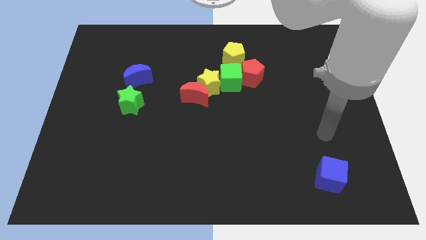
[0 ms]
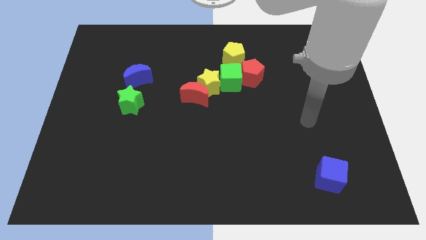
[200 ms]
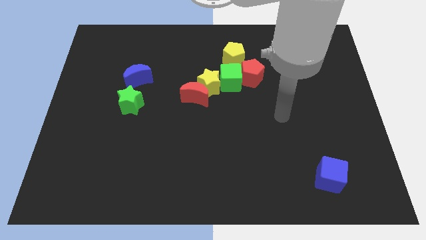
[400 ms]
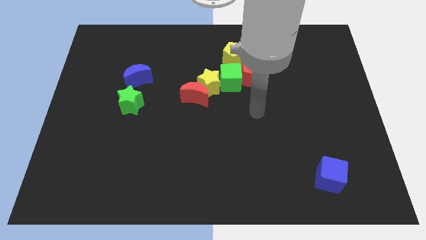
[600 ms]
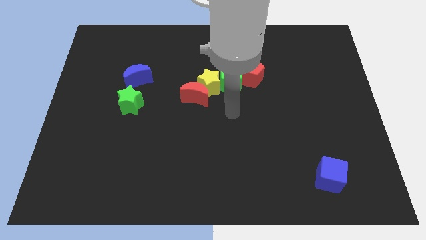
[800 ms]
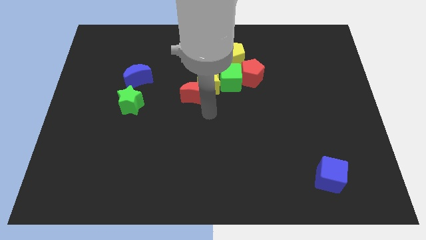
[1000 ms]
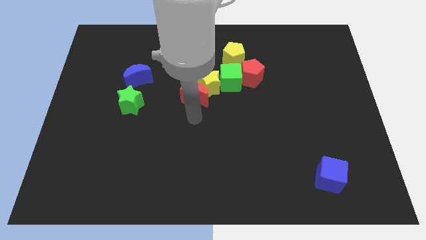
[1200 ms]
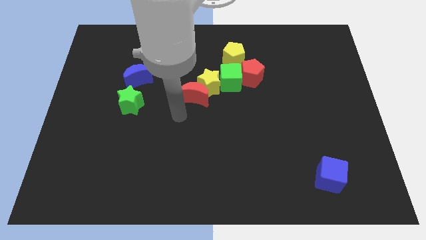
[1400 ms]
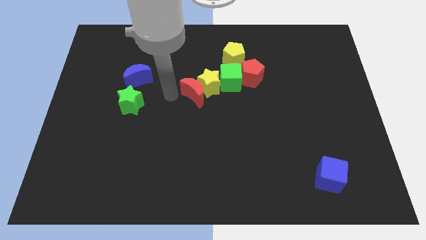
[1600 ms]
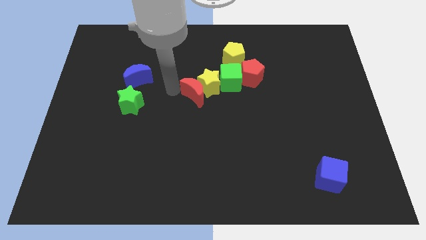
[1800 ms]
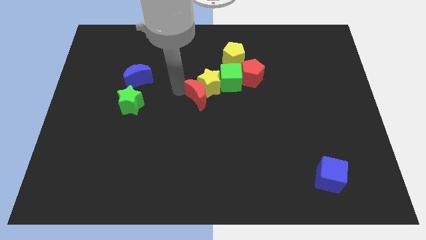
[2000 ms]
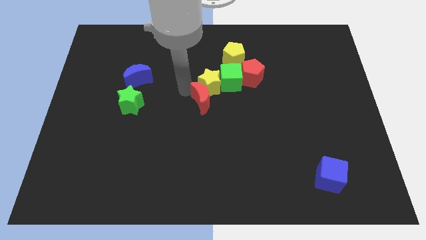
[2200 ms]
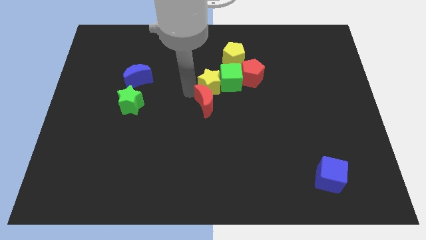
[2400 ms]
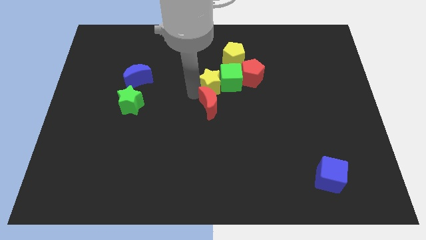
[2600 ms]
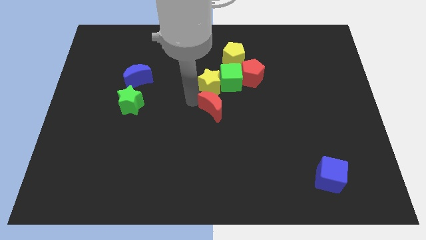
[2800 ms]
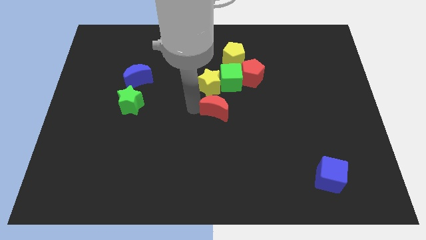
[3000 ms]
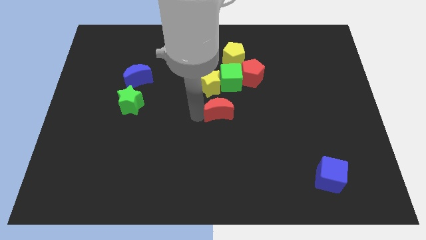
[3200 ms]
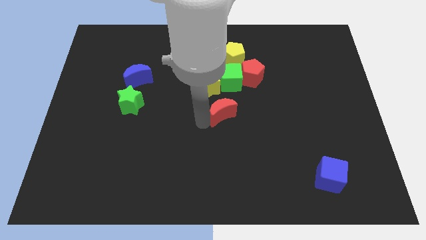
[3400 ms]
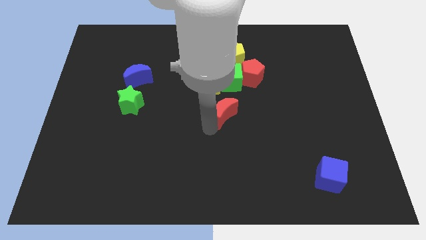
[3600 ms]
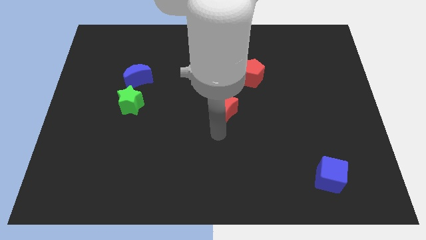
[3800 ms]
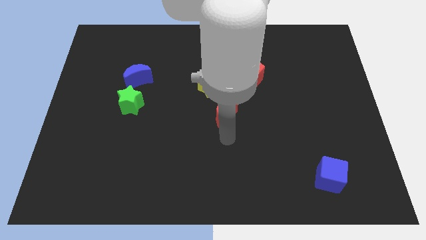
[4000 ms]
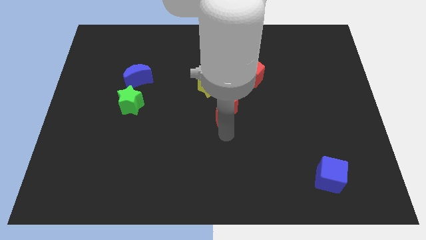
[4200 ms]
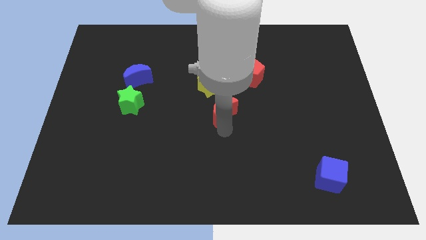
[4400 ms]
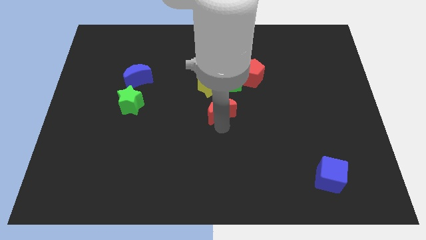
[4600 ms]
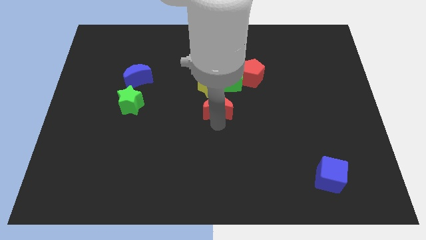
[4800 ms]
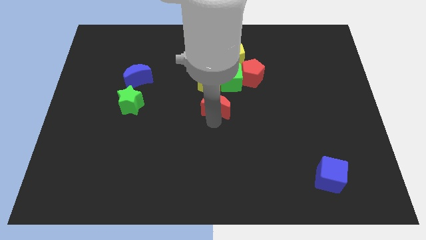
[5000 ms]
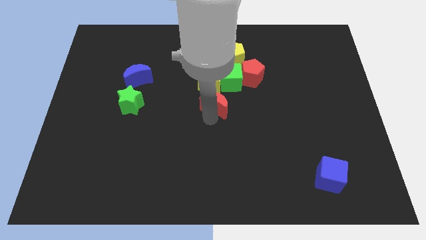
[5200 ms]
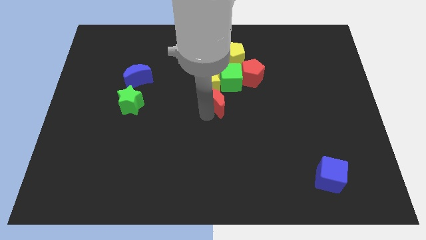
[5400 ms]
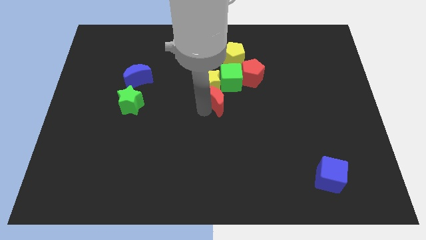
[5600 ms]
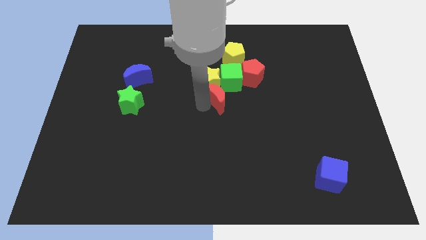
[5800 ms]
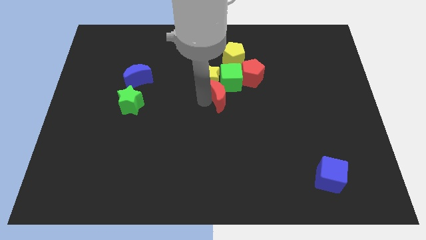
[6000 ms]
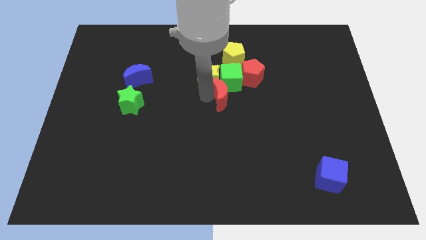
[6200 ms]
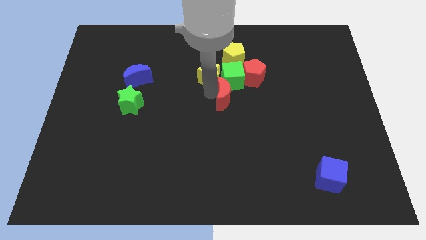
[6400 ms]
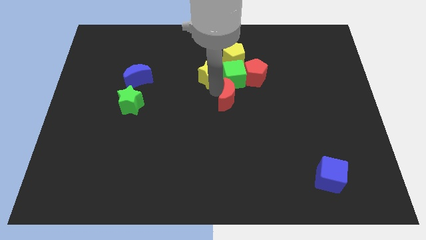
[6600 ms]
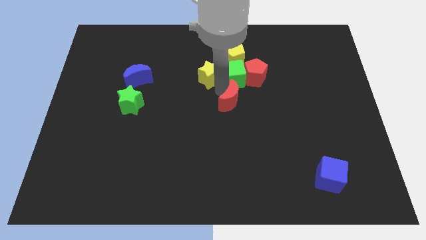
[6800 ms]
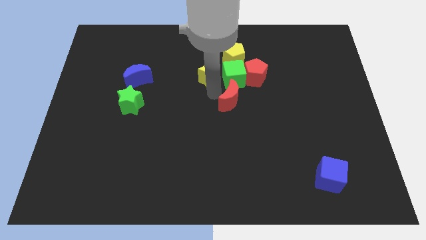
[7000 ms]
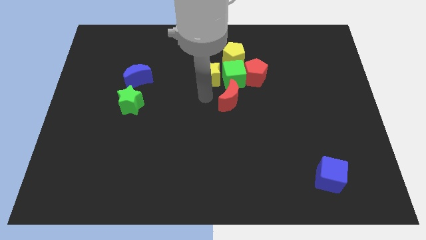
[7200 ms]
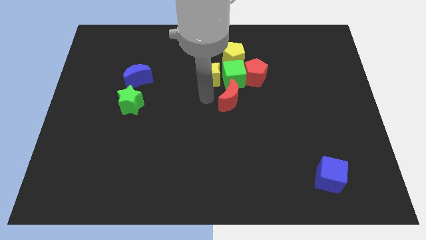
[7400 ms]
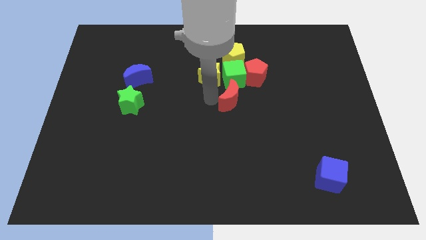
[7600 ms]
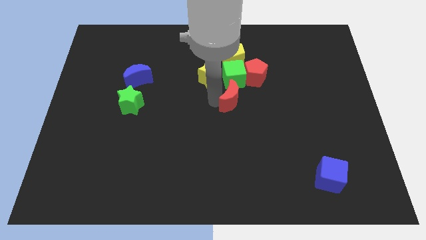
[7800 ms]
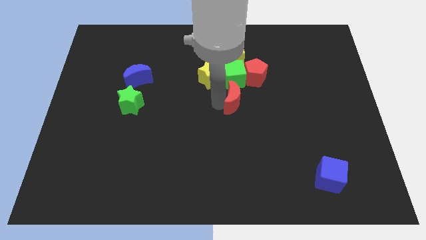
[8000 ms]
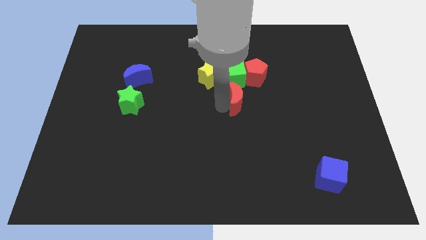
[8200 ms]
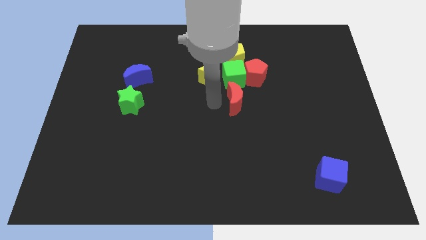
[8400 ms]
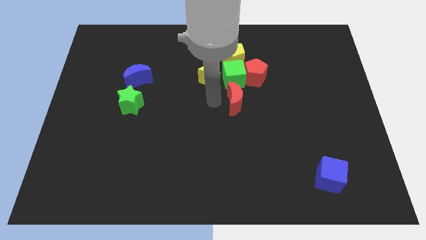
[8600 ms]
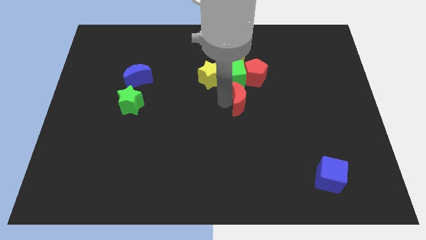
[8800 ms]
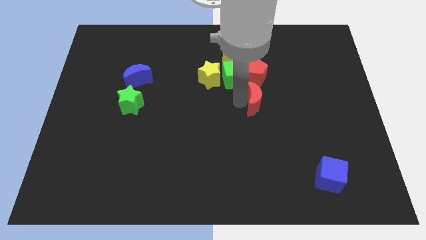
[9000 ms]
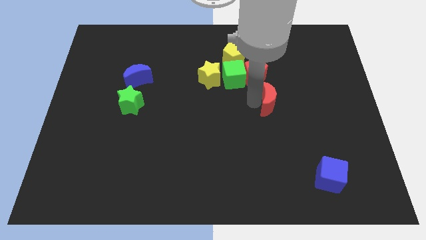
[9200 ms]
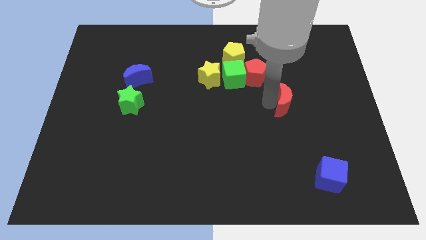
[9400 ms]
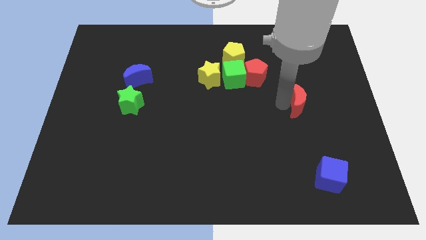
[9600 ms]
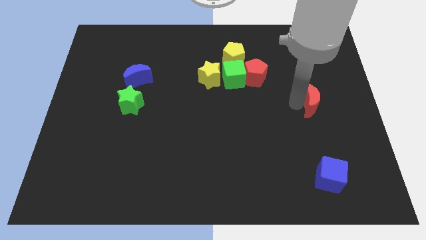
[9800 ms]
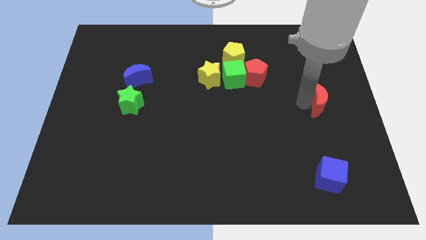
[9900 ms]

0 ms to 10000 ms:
slide the red moon to the right side

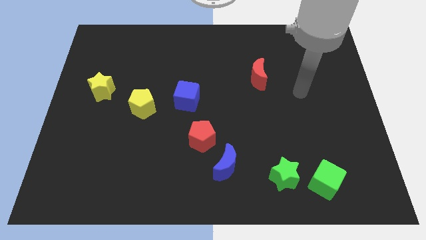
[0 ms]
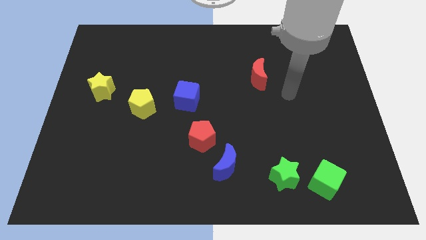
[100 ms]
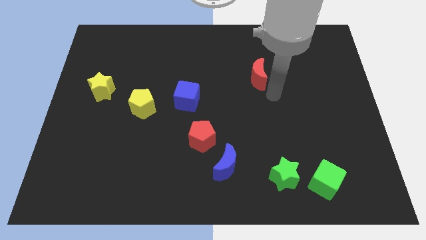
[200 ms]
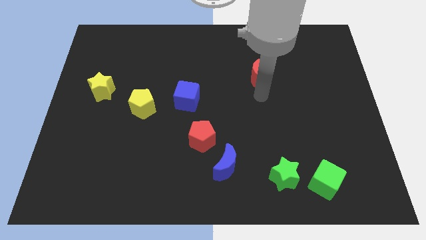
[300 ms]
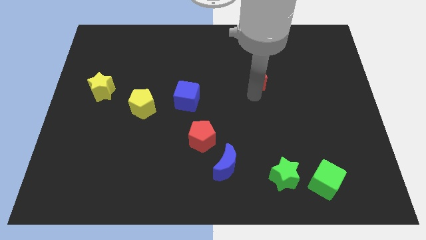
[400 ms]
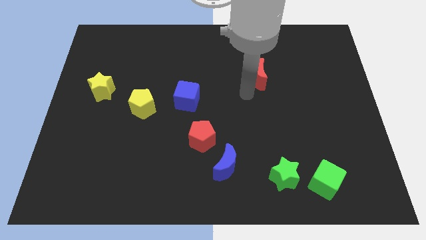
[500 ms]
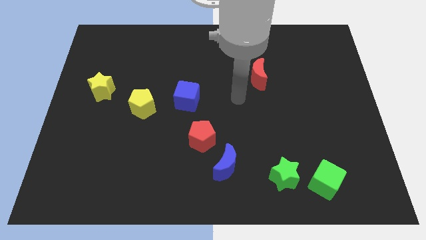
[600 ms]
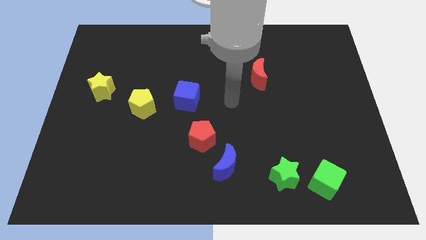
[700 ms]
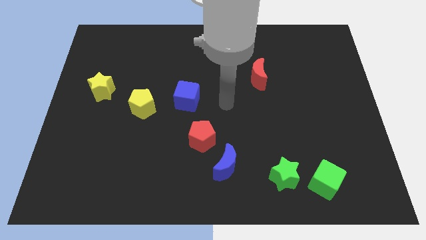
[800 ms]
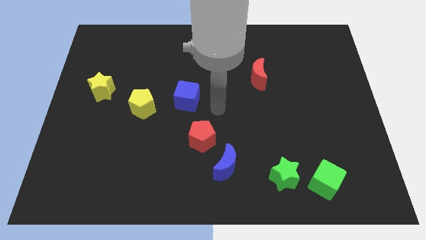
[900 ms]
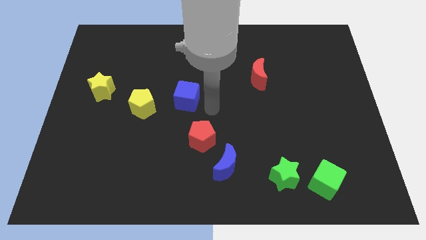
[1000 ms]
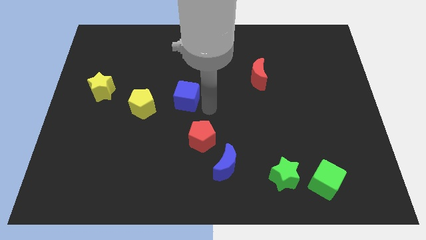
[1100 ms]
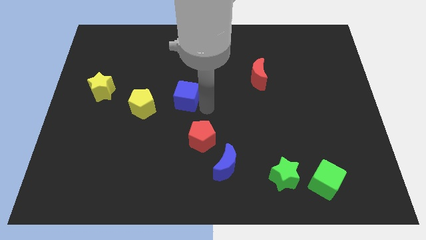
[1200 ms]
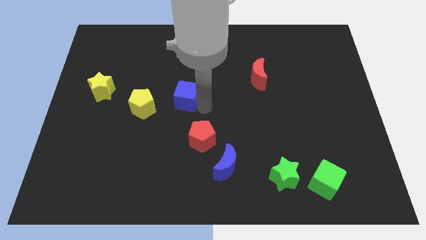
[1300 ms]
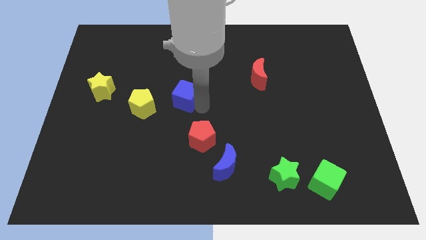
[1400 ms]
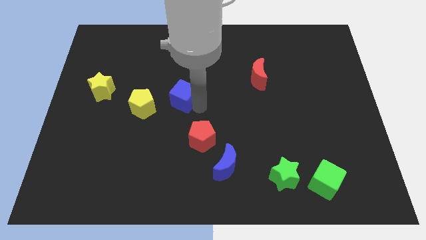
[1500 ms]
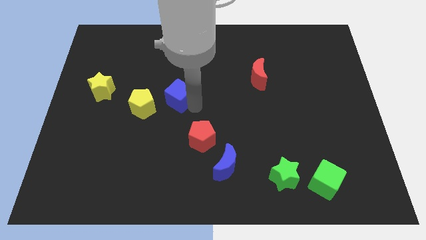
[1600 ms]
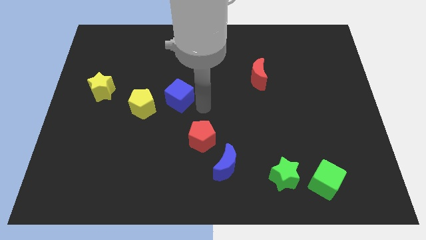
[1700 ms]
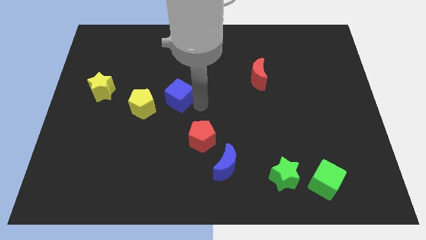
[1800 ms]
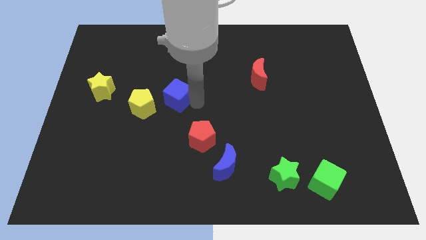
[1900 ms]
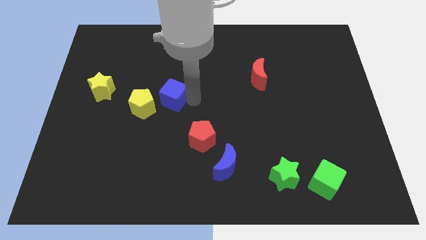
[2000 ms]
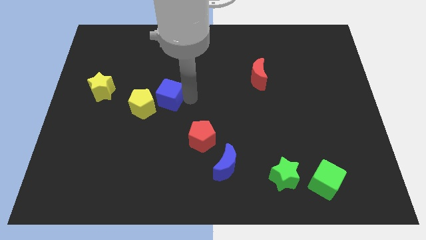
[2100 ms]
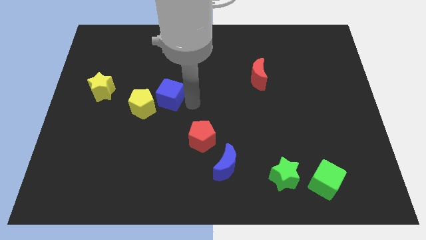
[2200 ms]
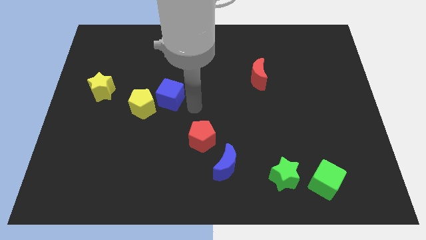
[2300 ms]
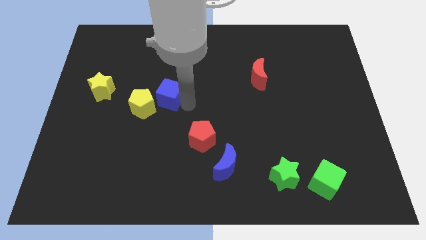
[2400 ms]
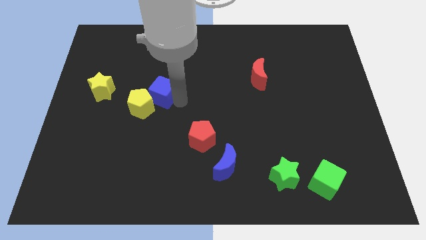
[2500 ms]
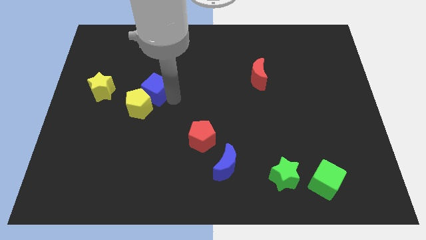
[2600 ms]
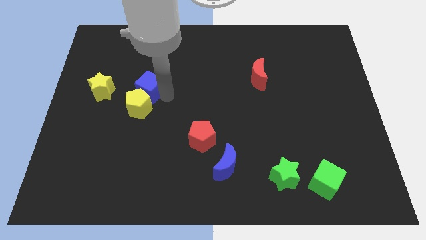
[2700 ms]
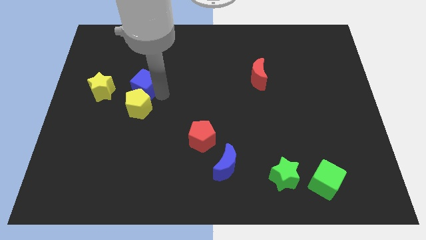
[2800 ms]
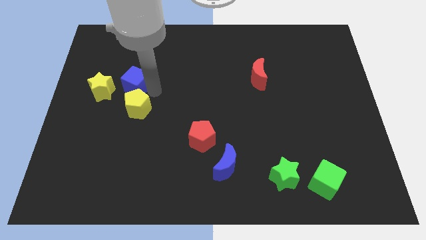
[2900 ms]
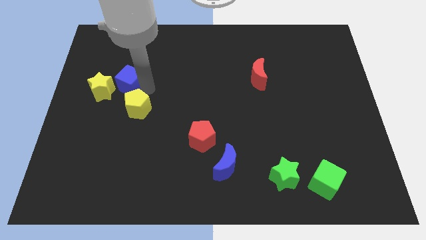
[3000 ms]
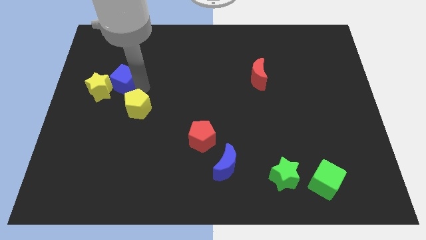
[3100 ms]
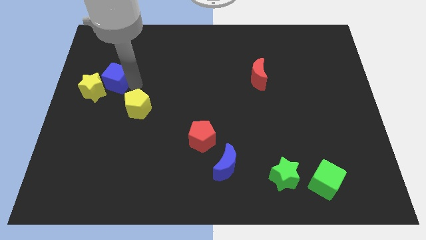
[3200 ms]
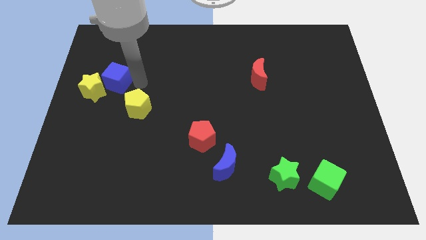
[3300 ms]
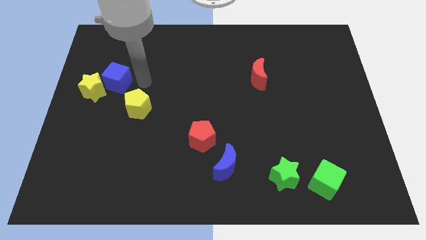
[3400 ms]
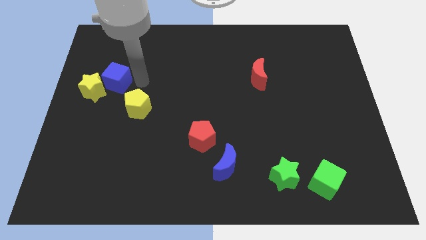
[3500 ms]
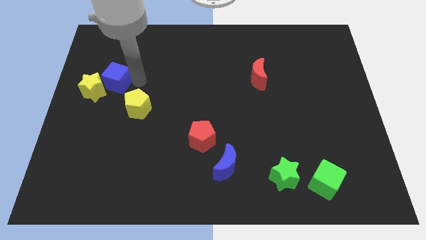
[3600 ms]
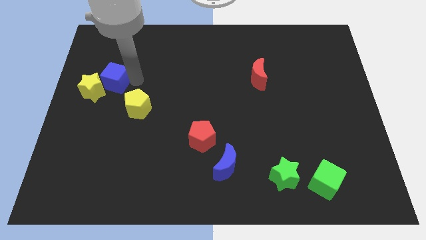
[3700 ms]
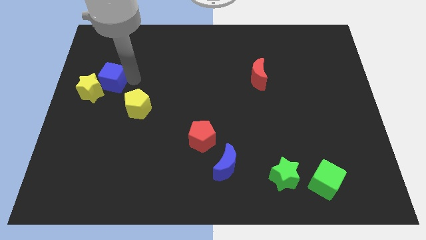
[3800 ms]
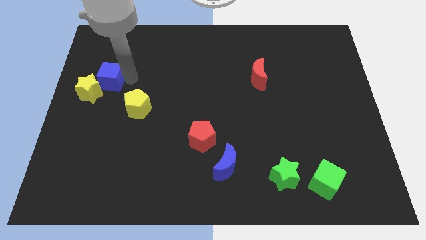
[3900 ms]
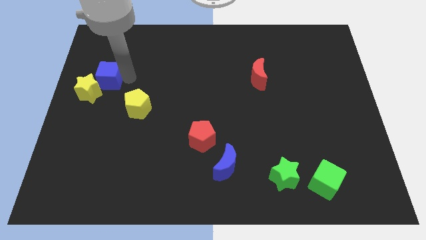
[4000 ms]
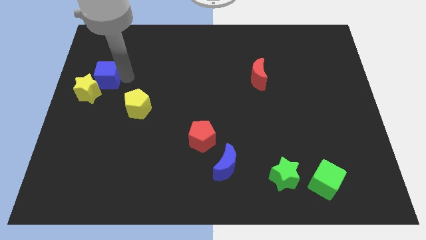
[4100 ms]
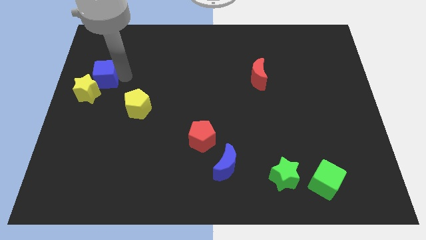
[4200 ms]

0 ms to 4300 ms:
slide the blue cube to the center left
